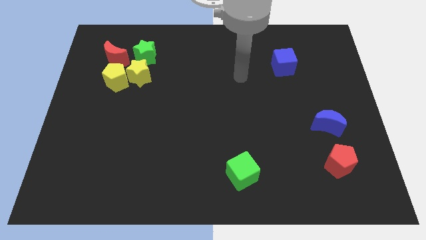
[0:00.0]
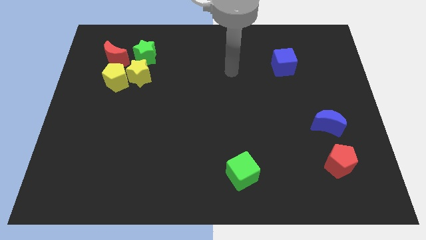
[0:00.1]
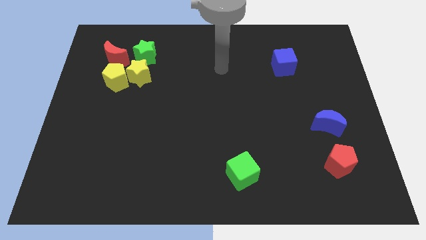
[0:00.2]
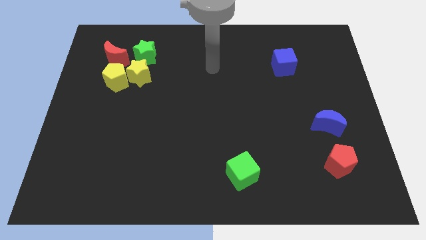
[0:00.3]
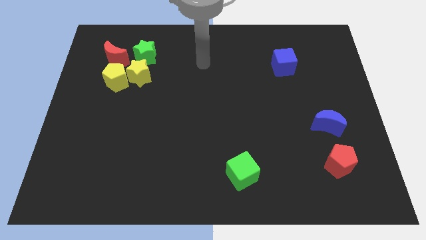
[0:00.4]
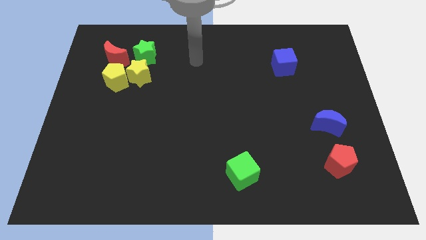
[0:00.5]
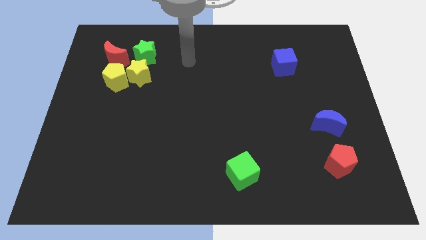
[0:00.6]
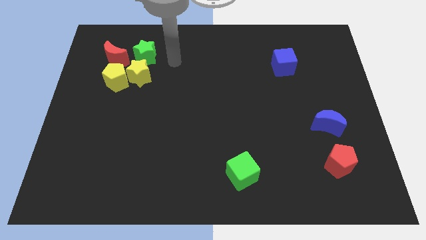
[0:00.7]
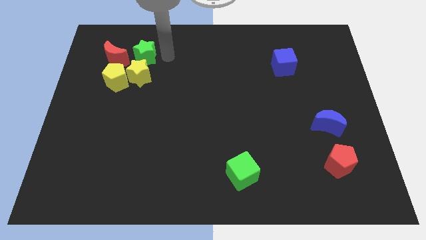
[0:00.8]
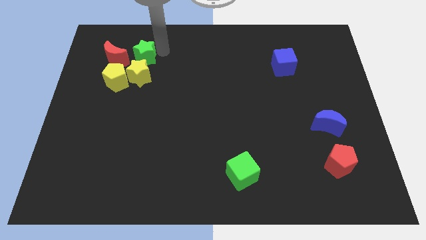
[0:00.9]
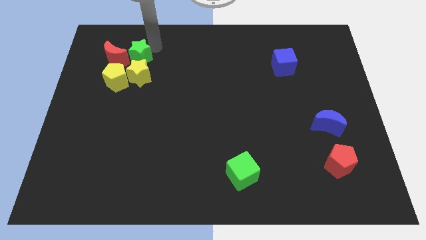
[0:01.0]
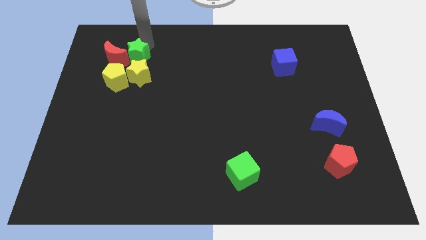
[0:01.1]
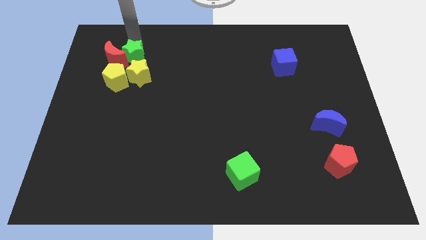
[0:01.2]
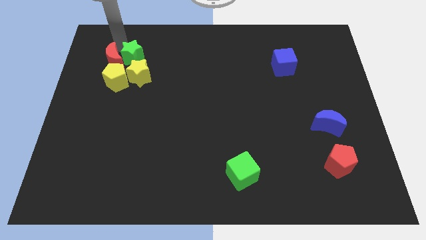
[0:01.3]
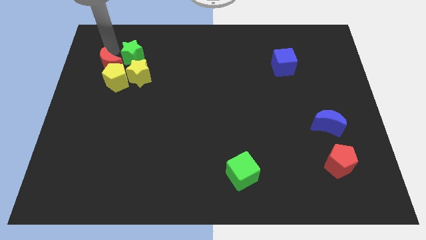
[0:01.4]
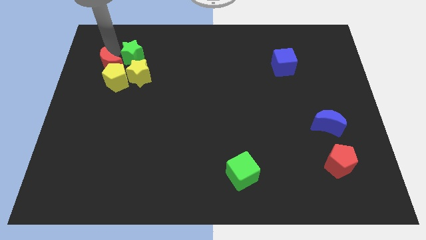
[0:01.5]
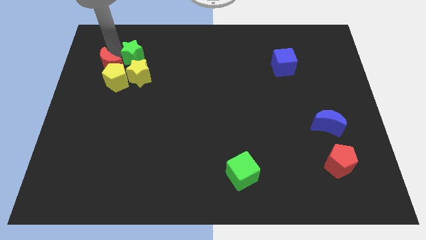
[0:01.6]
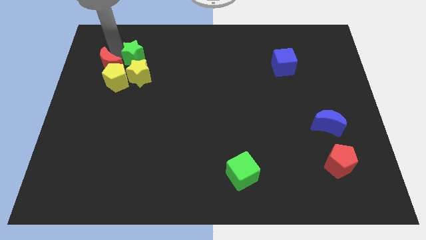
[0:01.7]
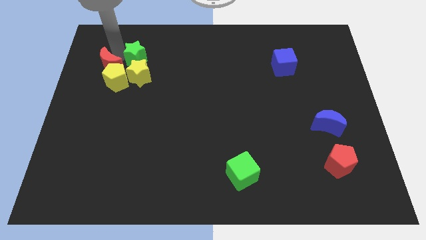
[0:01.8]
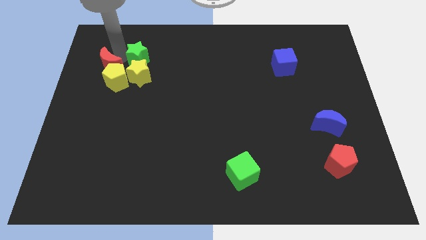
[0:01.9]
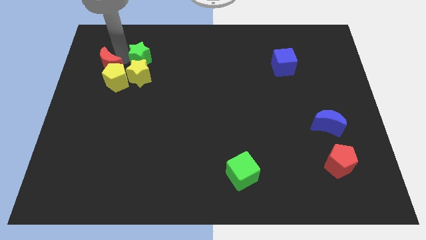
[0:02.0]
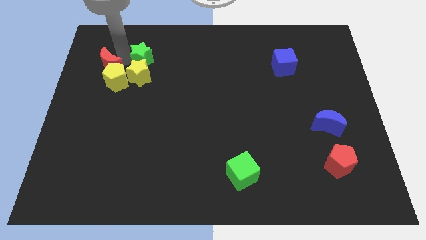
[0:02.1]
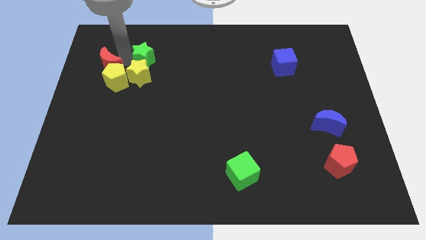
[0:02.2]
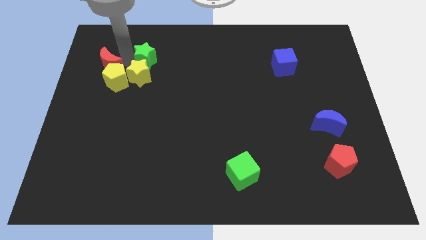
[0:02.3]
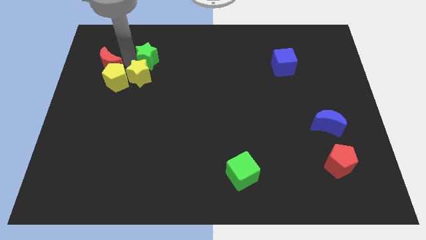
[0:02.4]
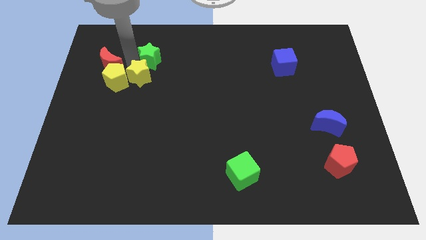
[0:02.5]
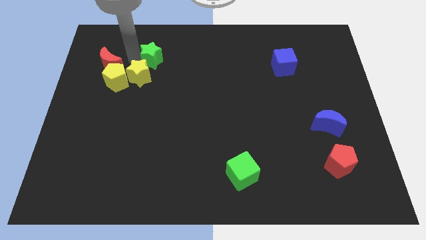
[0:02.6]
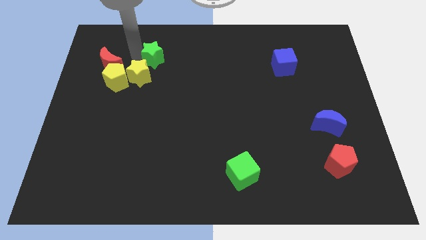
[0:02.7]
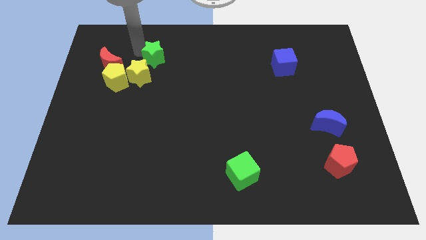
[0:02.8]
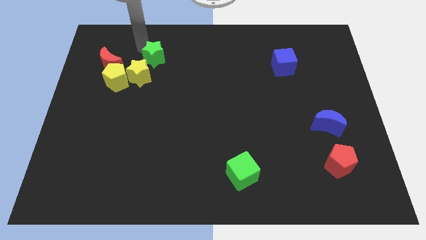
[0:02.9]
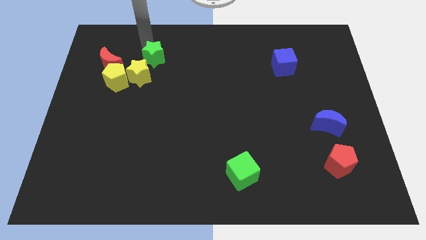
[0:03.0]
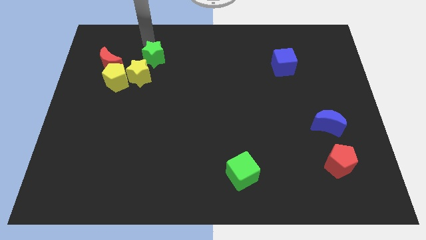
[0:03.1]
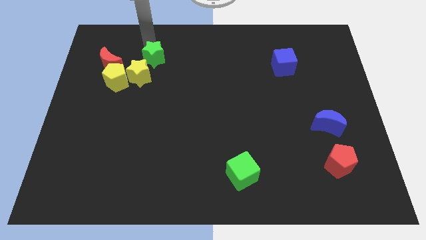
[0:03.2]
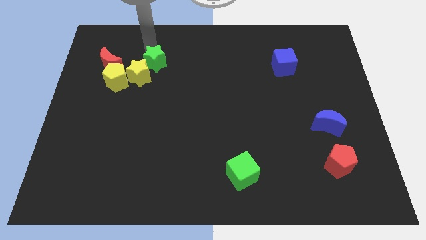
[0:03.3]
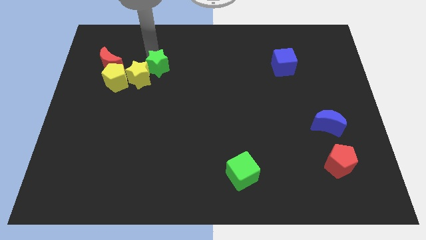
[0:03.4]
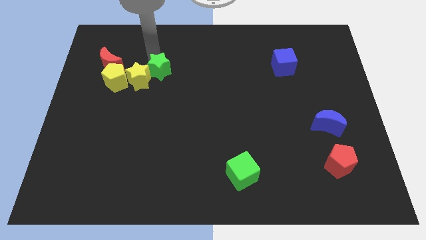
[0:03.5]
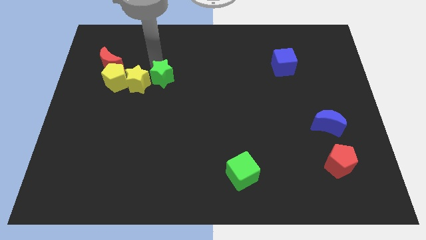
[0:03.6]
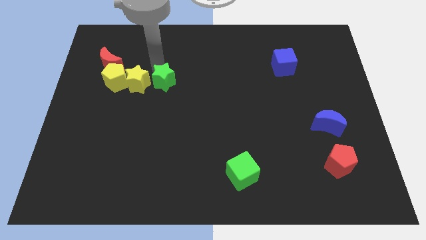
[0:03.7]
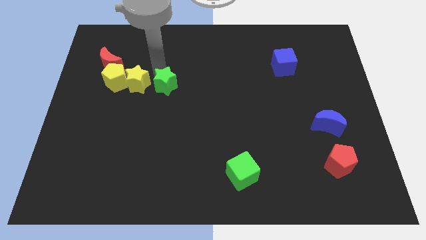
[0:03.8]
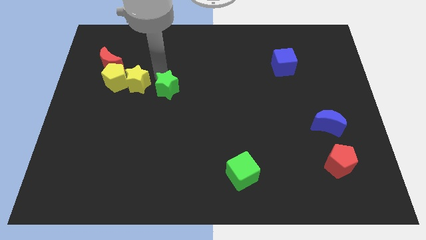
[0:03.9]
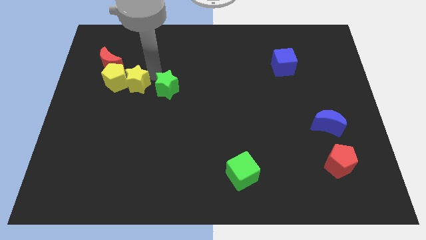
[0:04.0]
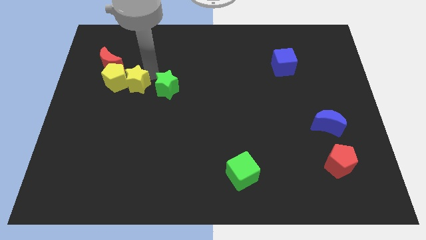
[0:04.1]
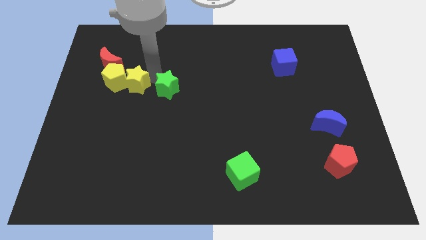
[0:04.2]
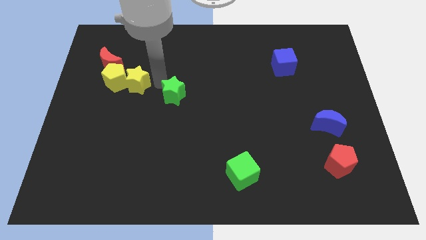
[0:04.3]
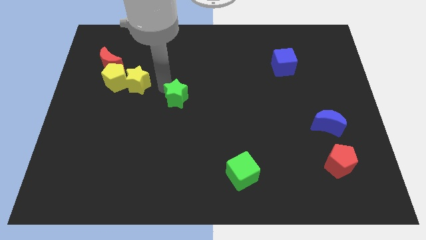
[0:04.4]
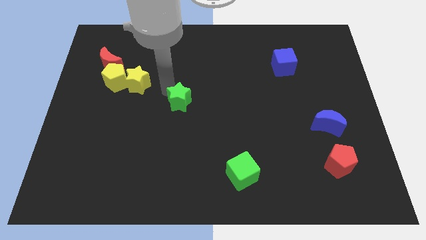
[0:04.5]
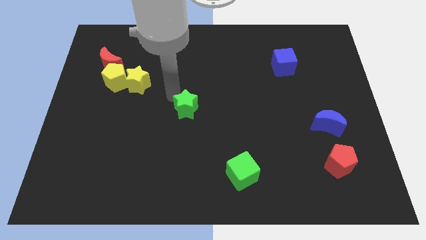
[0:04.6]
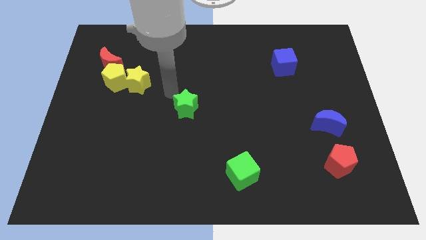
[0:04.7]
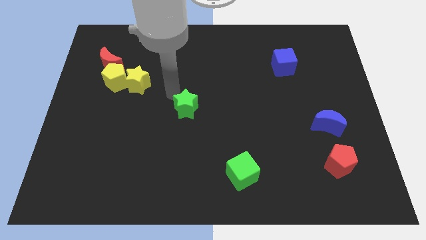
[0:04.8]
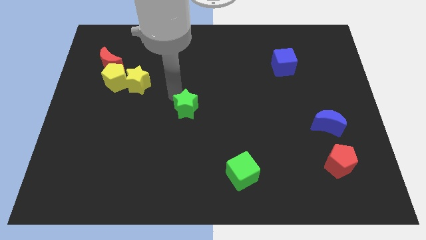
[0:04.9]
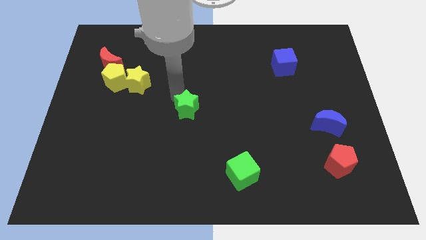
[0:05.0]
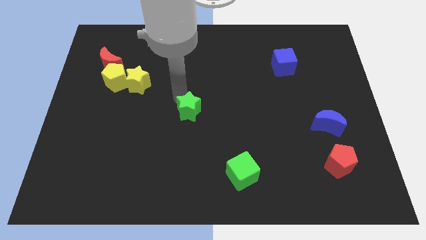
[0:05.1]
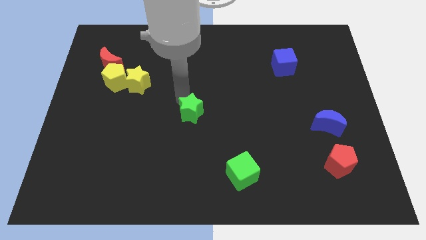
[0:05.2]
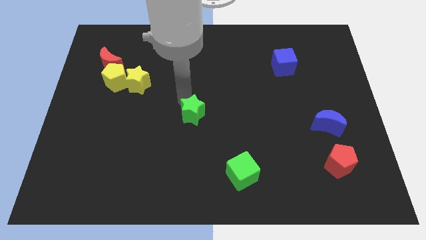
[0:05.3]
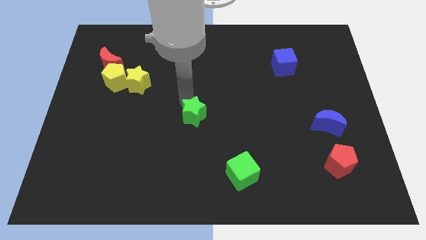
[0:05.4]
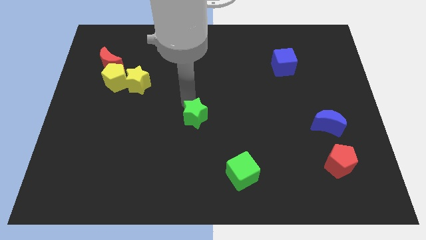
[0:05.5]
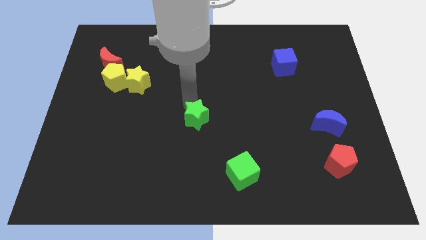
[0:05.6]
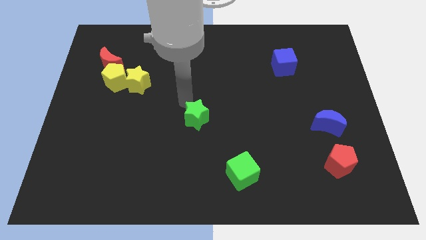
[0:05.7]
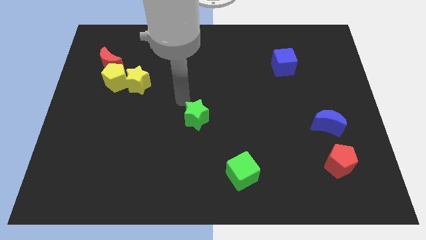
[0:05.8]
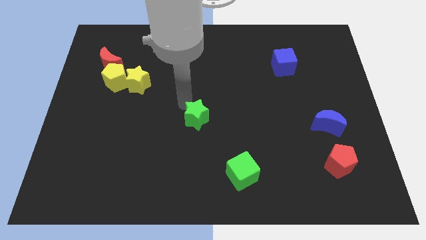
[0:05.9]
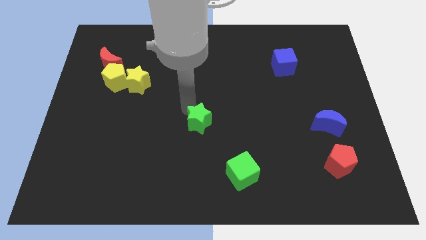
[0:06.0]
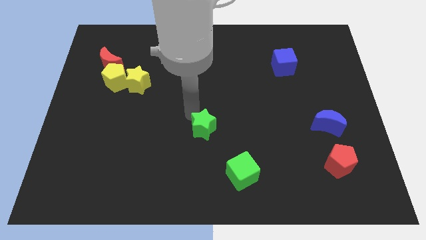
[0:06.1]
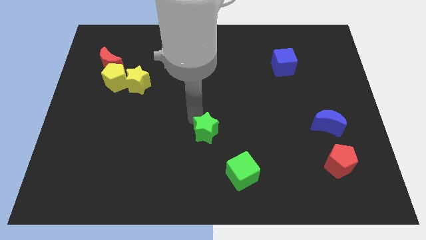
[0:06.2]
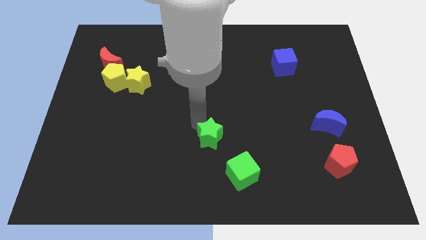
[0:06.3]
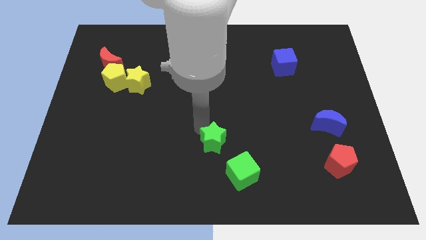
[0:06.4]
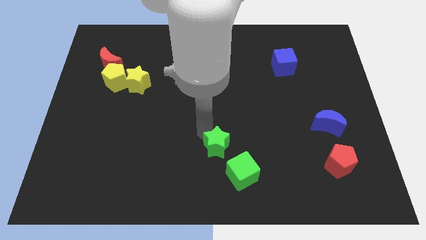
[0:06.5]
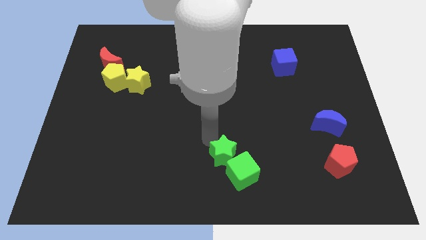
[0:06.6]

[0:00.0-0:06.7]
put the green star next to the green cube
